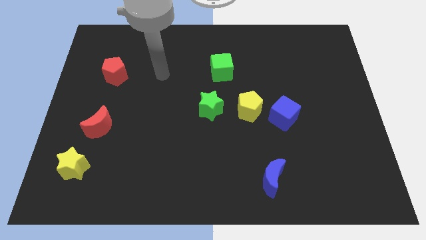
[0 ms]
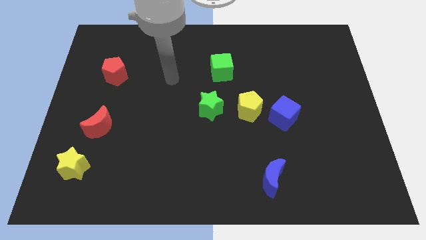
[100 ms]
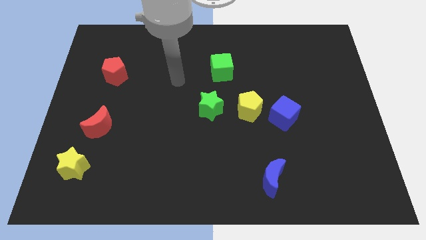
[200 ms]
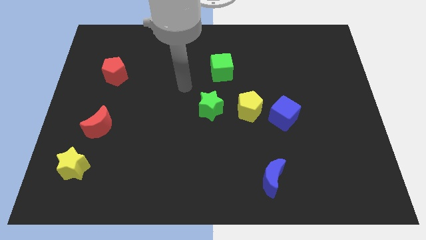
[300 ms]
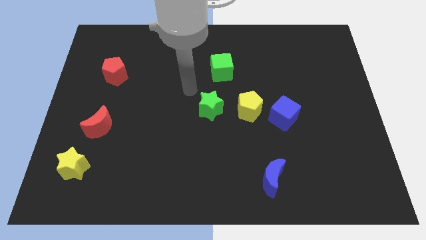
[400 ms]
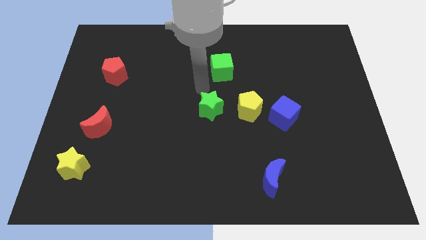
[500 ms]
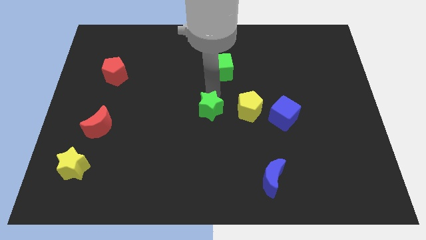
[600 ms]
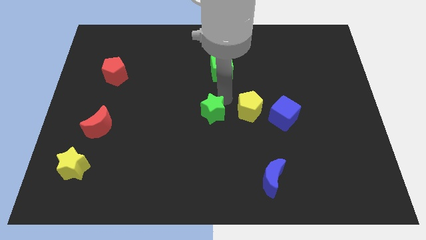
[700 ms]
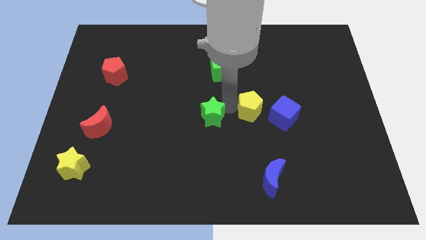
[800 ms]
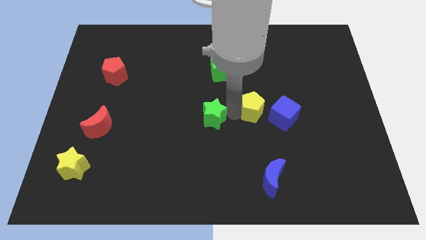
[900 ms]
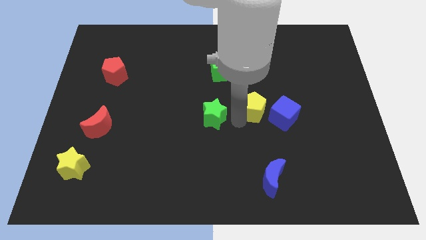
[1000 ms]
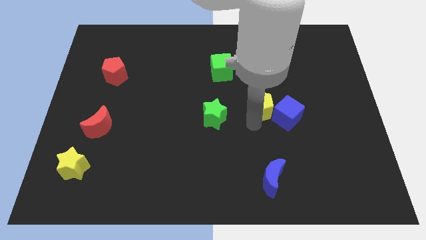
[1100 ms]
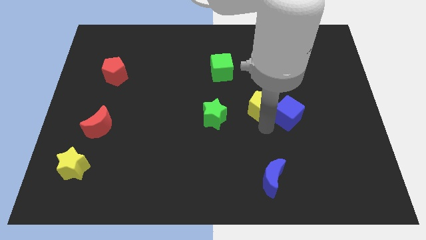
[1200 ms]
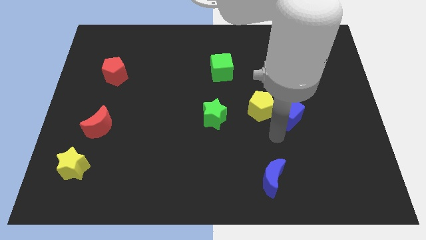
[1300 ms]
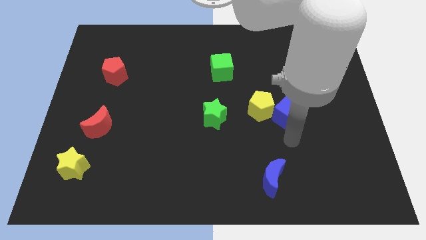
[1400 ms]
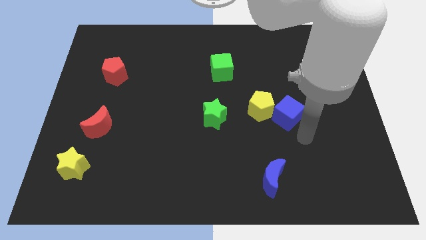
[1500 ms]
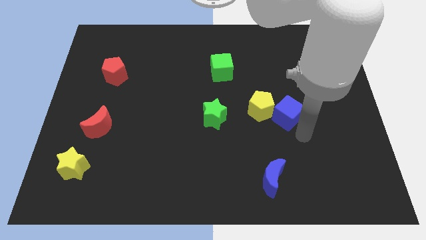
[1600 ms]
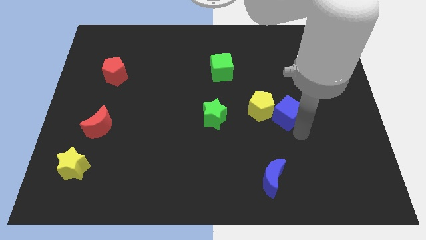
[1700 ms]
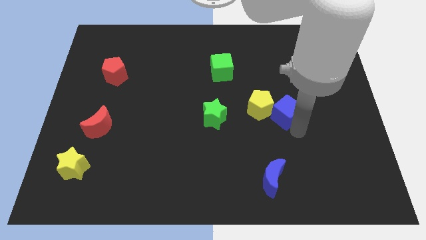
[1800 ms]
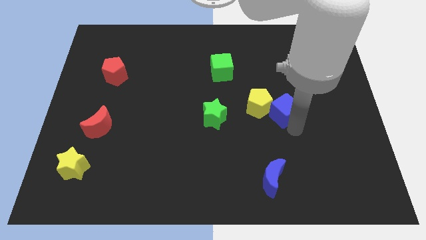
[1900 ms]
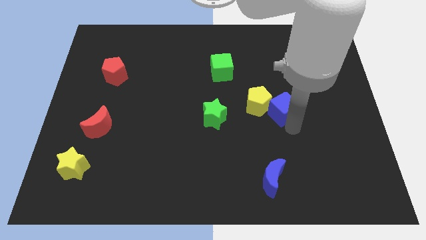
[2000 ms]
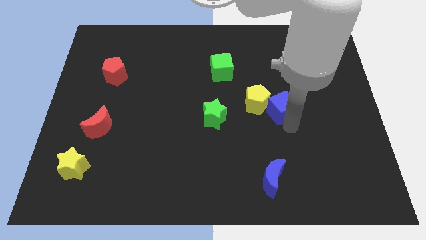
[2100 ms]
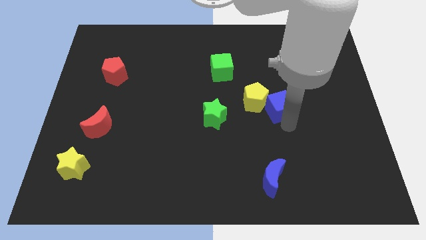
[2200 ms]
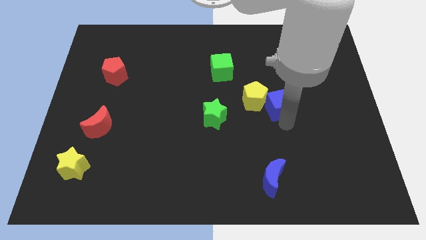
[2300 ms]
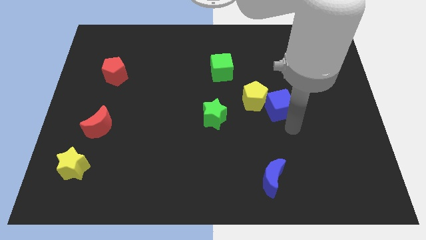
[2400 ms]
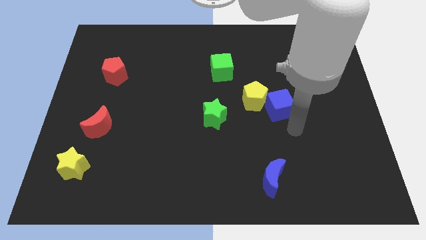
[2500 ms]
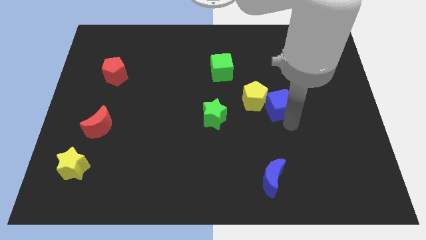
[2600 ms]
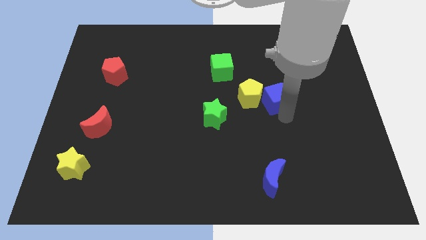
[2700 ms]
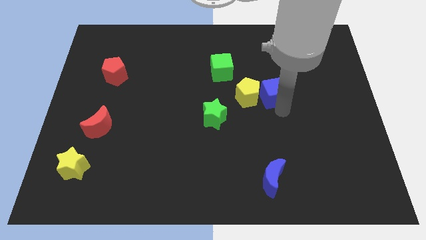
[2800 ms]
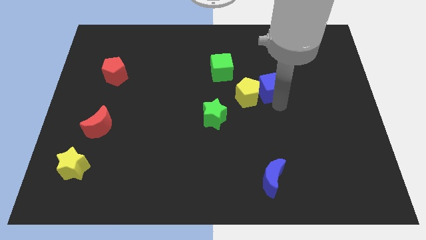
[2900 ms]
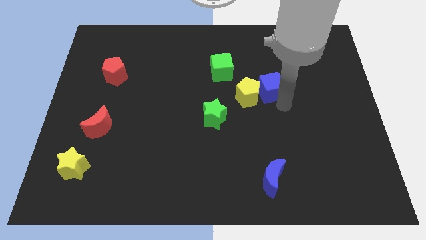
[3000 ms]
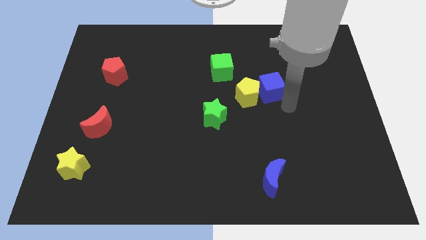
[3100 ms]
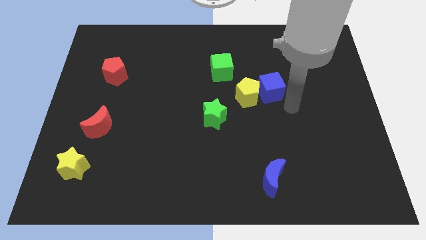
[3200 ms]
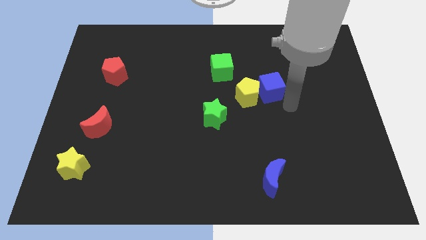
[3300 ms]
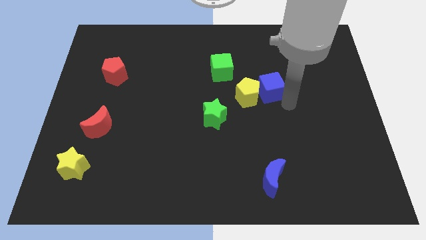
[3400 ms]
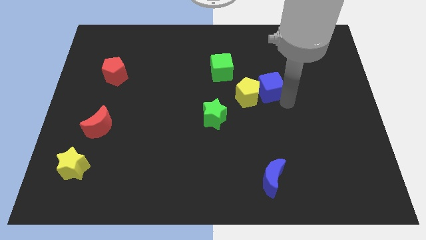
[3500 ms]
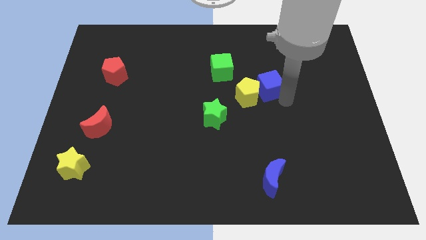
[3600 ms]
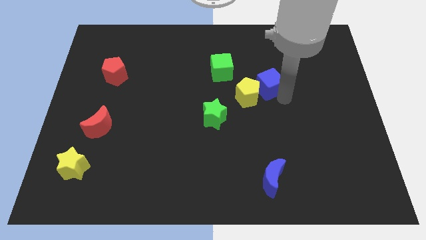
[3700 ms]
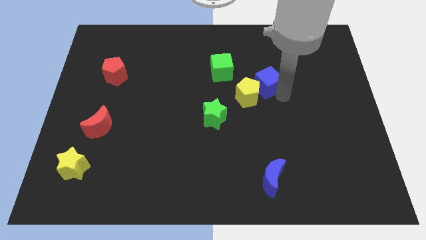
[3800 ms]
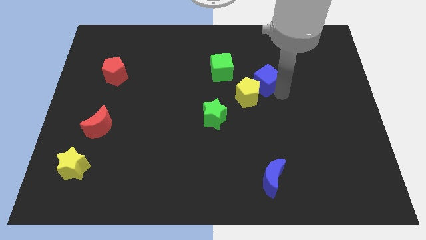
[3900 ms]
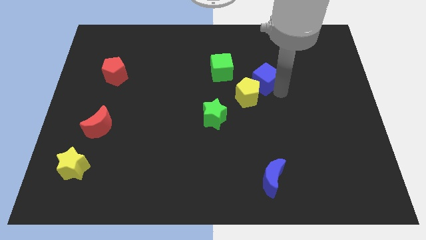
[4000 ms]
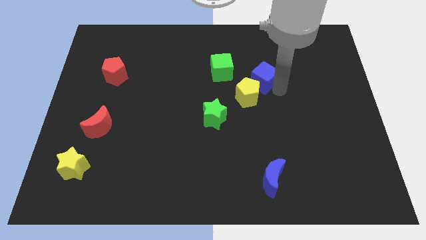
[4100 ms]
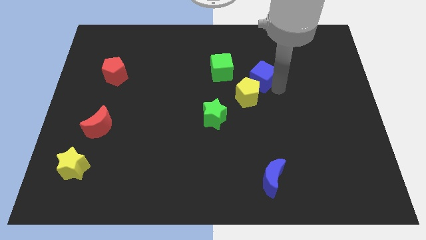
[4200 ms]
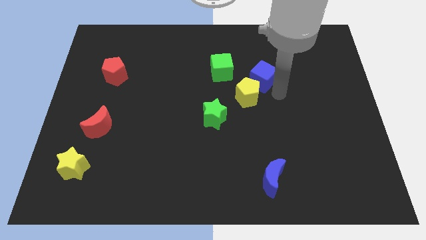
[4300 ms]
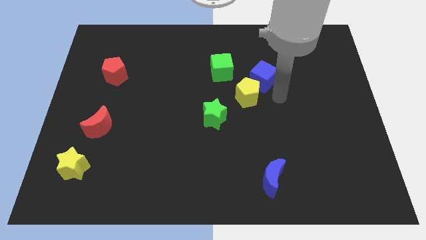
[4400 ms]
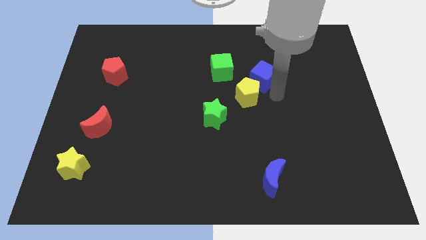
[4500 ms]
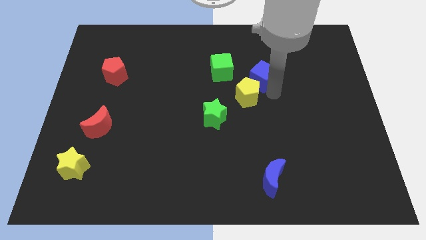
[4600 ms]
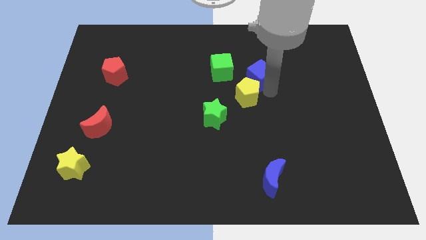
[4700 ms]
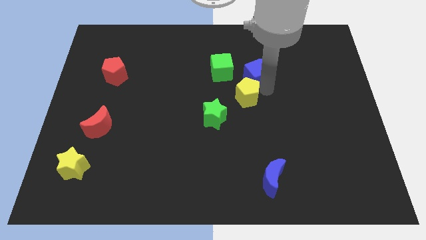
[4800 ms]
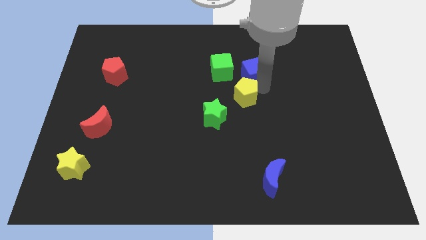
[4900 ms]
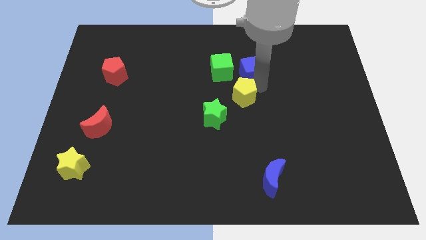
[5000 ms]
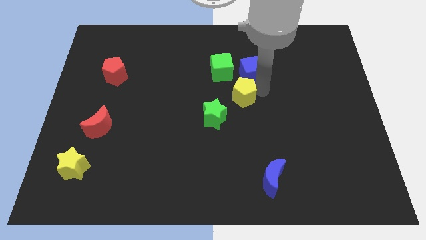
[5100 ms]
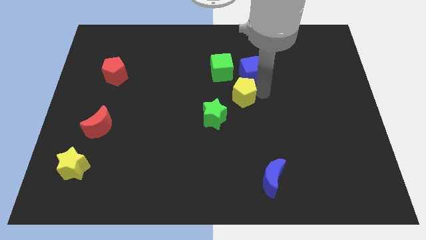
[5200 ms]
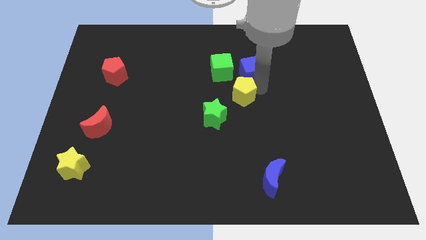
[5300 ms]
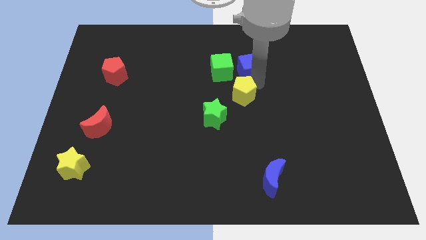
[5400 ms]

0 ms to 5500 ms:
slide the blue cube to the top right side of the green cube

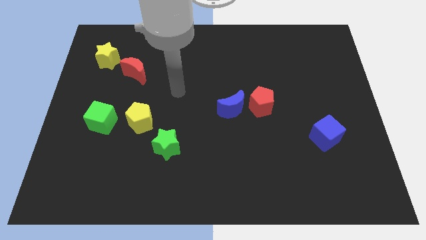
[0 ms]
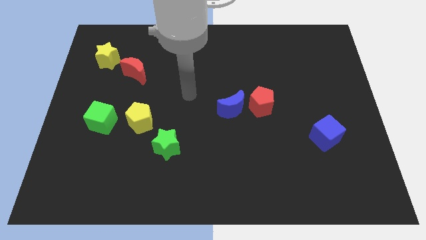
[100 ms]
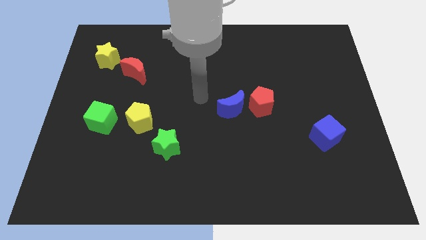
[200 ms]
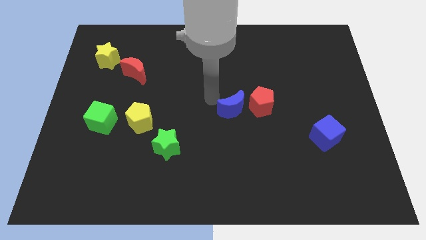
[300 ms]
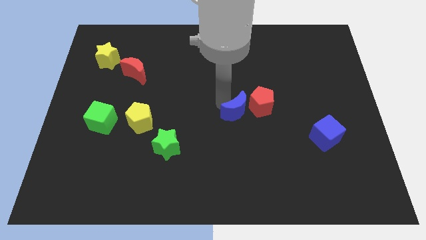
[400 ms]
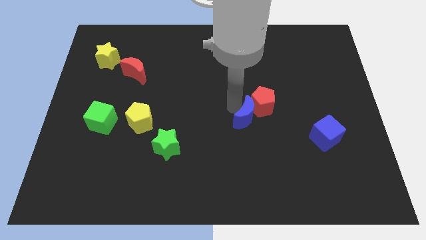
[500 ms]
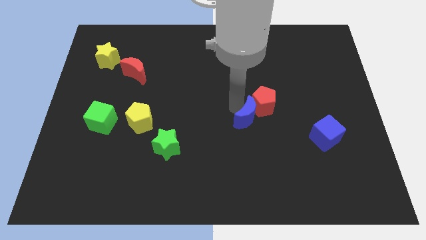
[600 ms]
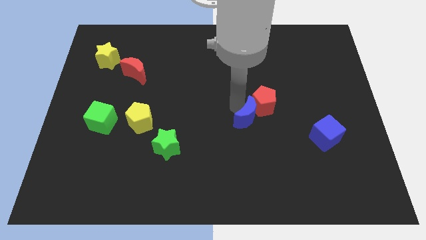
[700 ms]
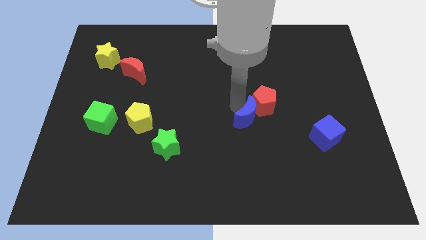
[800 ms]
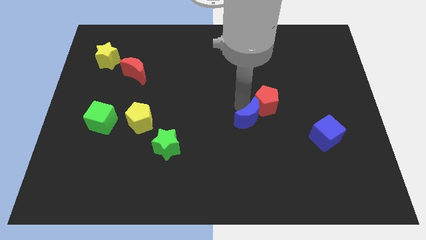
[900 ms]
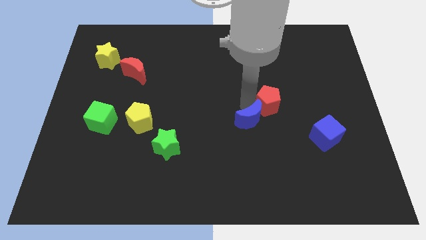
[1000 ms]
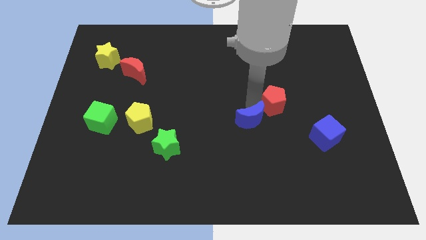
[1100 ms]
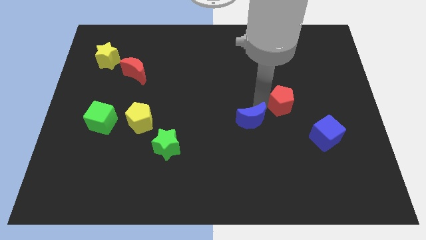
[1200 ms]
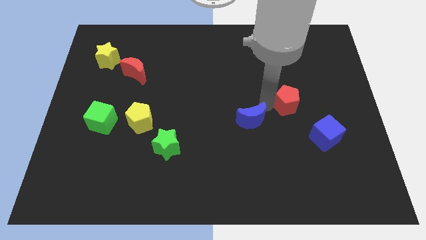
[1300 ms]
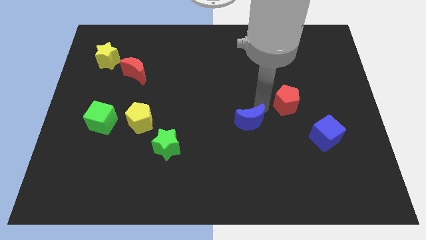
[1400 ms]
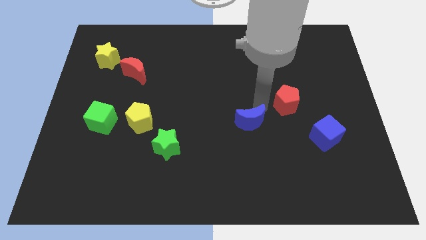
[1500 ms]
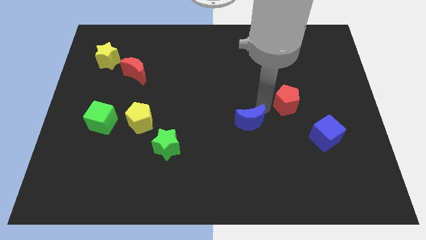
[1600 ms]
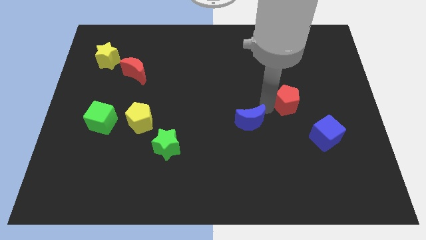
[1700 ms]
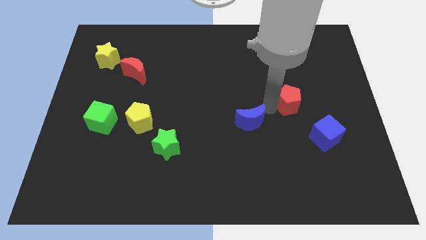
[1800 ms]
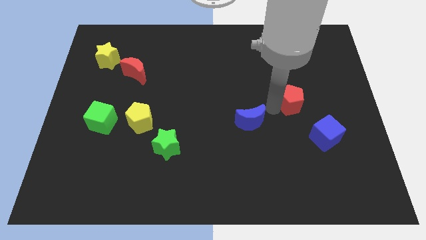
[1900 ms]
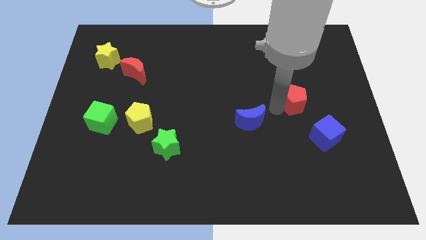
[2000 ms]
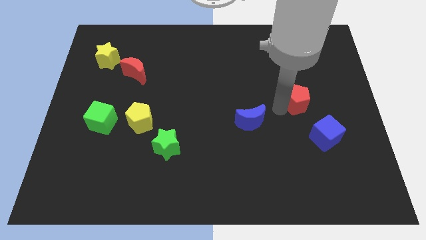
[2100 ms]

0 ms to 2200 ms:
put the red pentagon to the top of the blue cube
